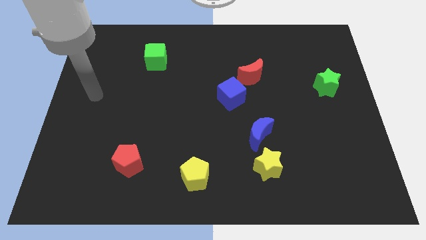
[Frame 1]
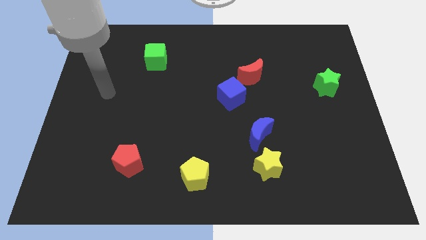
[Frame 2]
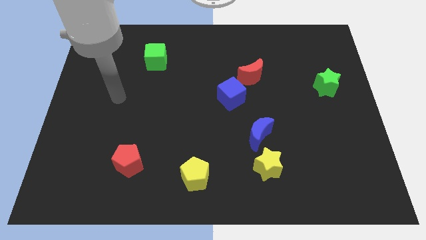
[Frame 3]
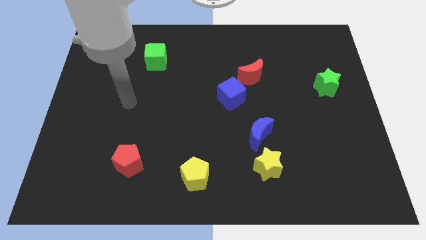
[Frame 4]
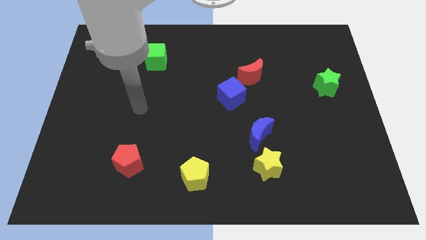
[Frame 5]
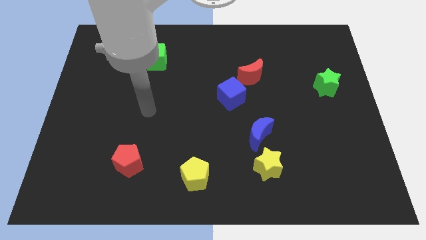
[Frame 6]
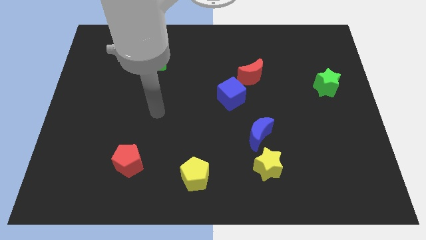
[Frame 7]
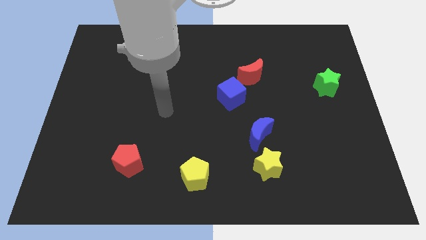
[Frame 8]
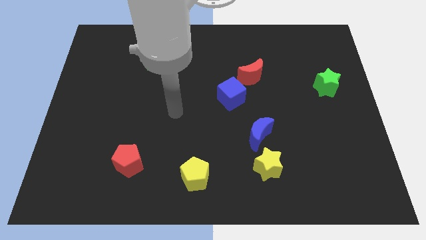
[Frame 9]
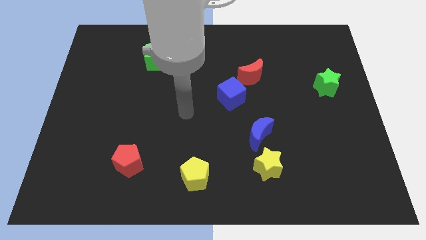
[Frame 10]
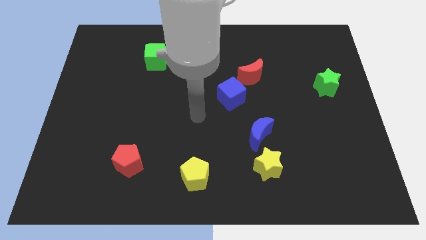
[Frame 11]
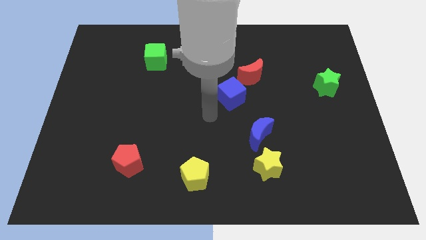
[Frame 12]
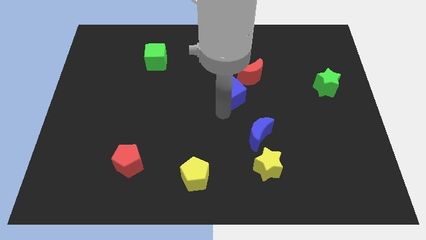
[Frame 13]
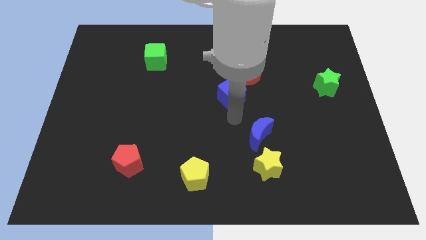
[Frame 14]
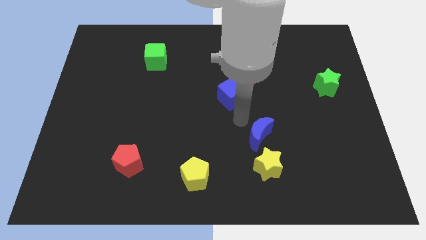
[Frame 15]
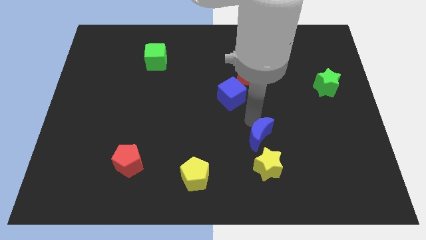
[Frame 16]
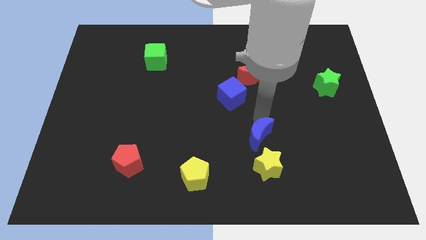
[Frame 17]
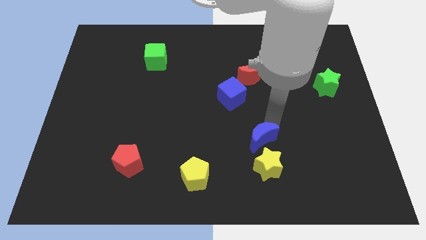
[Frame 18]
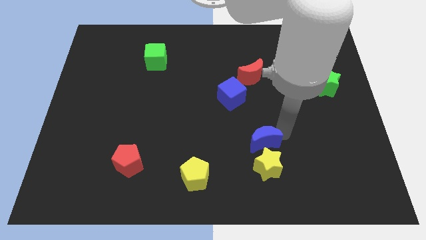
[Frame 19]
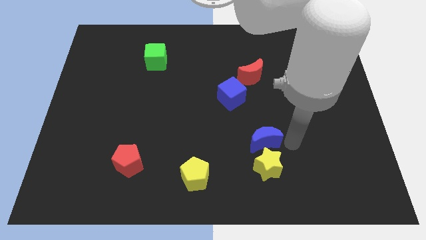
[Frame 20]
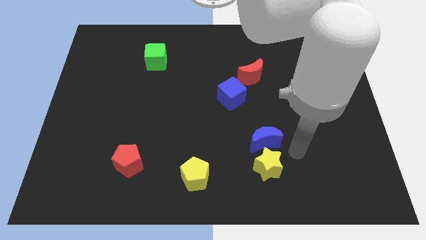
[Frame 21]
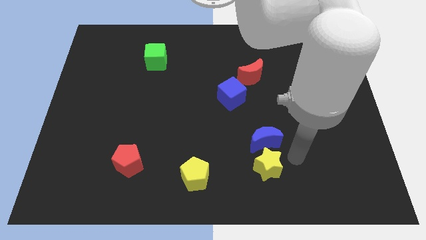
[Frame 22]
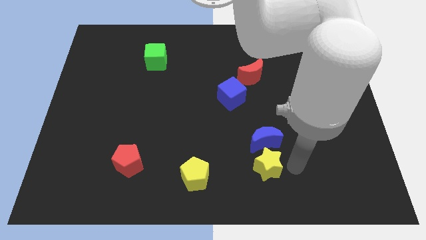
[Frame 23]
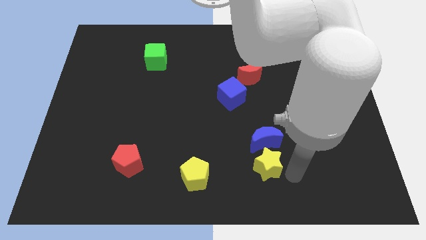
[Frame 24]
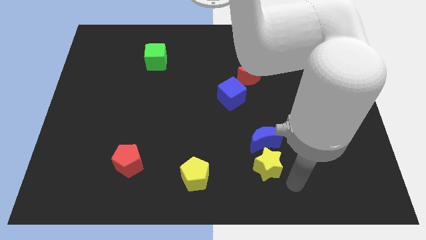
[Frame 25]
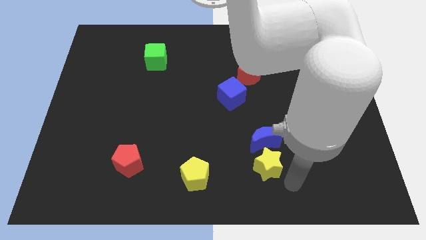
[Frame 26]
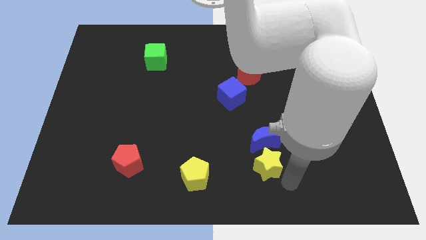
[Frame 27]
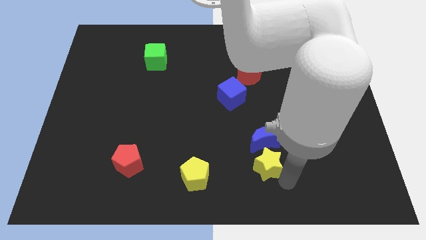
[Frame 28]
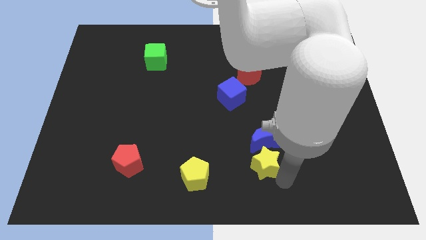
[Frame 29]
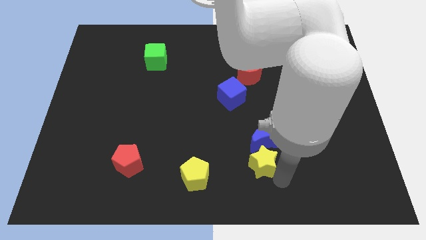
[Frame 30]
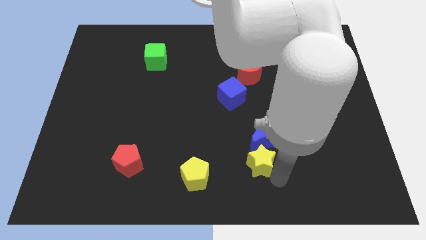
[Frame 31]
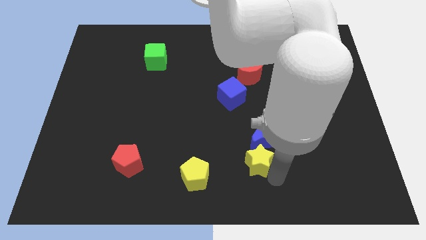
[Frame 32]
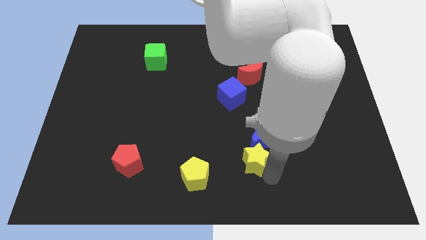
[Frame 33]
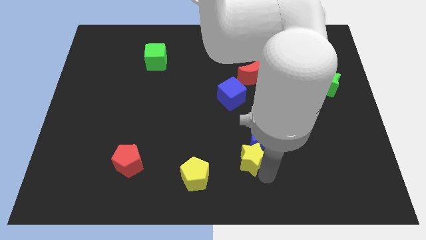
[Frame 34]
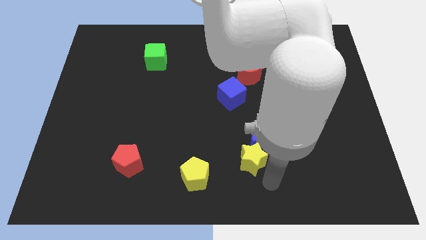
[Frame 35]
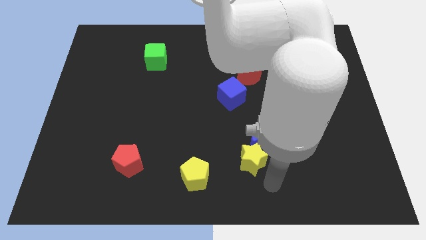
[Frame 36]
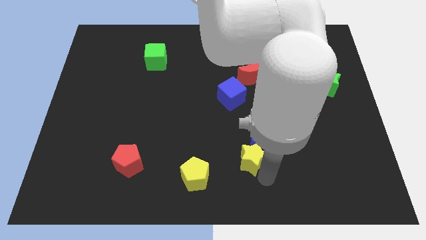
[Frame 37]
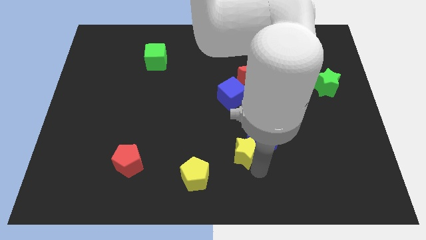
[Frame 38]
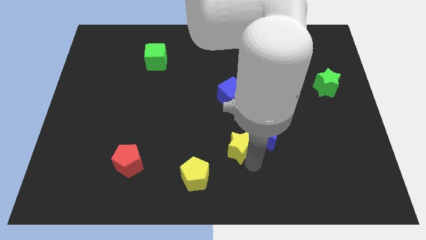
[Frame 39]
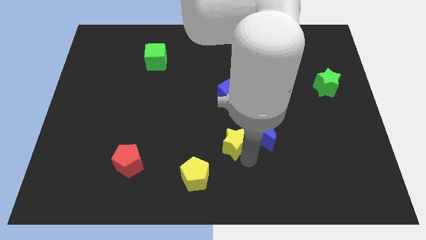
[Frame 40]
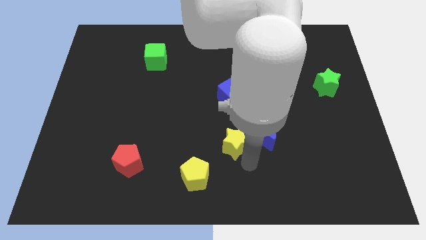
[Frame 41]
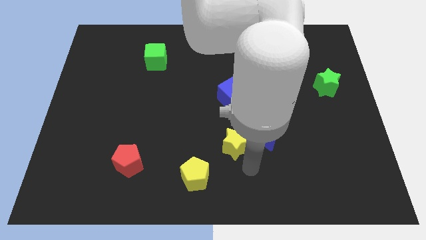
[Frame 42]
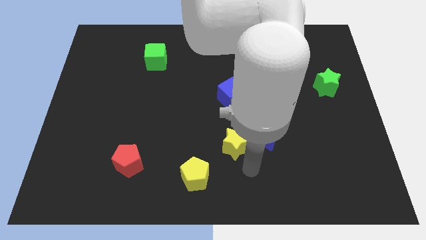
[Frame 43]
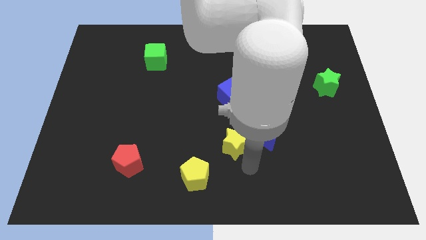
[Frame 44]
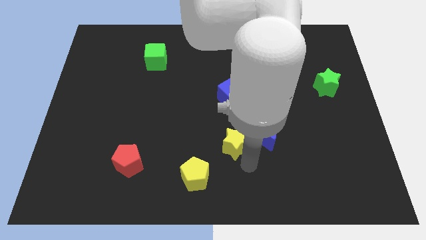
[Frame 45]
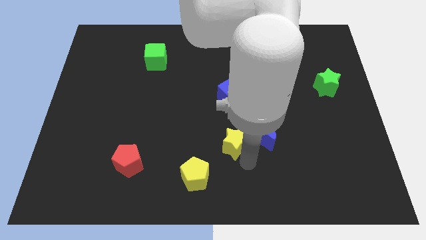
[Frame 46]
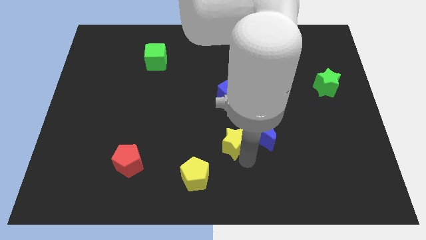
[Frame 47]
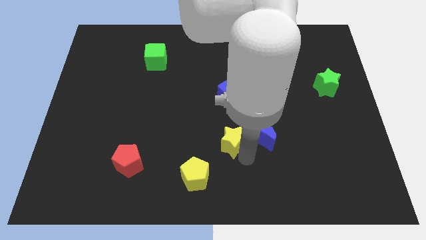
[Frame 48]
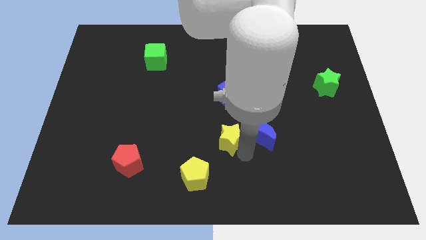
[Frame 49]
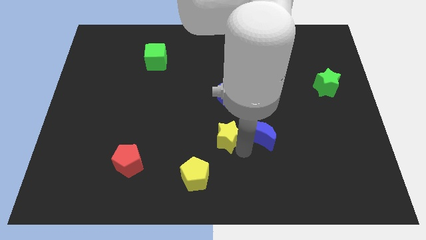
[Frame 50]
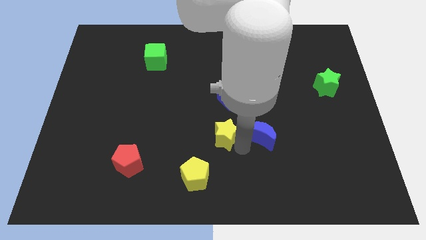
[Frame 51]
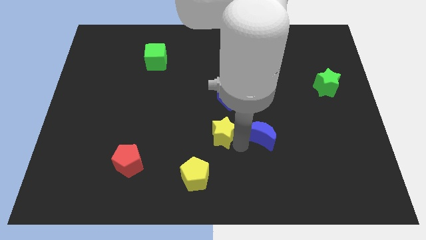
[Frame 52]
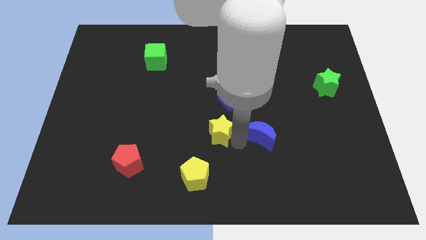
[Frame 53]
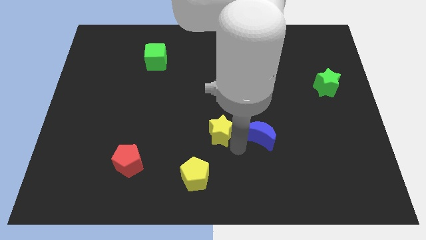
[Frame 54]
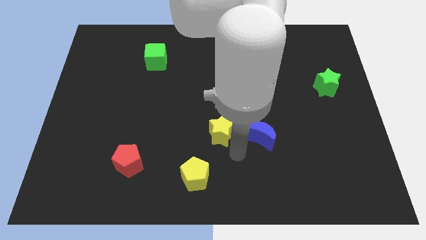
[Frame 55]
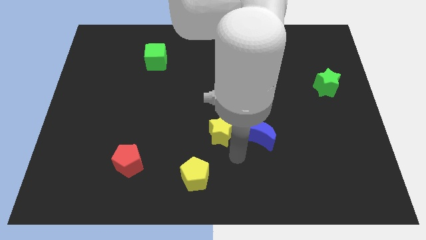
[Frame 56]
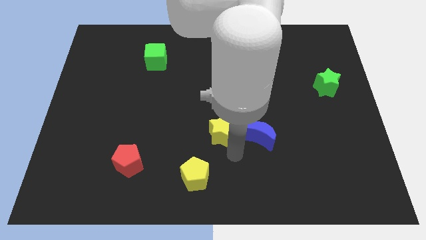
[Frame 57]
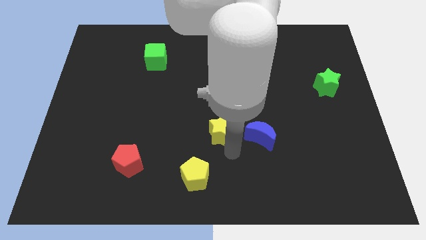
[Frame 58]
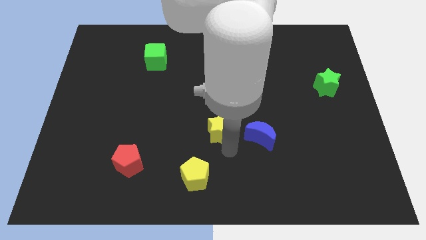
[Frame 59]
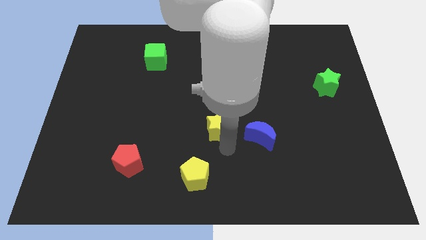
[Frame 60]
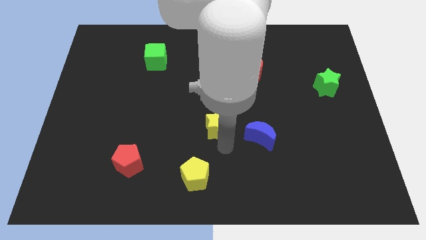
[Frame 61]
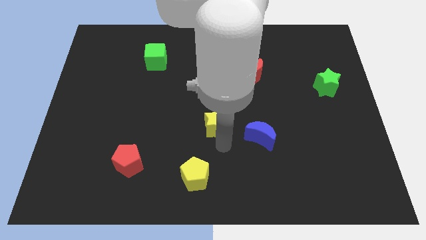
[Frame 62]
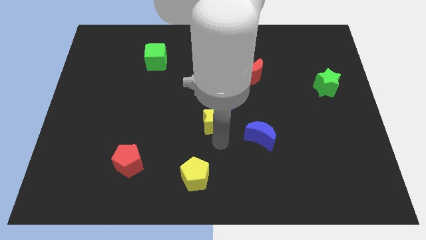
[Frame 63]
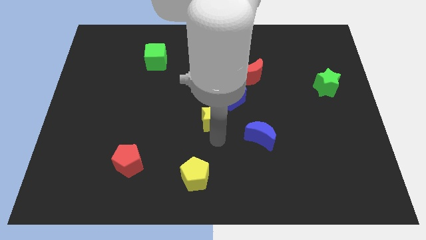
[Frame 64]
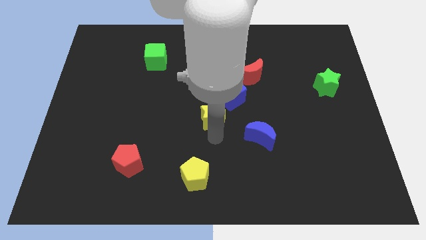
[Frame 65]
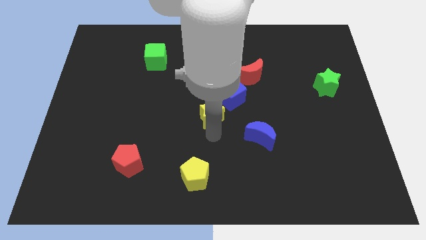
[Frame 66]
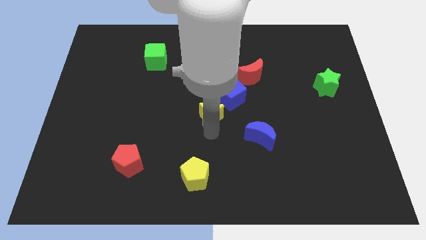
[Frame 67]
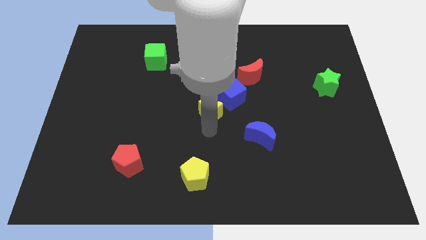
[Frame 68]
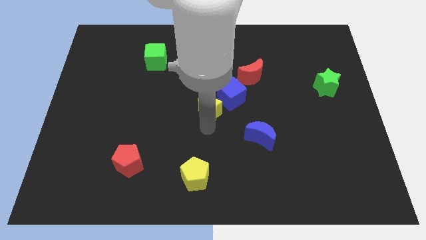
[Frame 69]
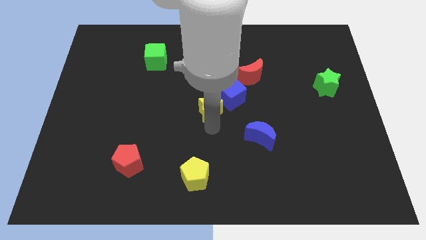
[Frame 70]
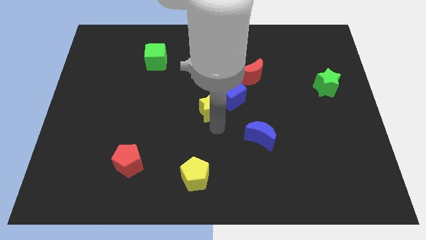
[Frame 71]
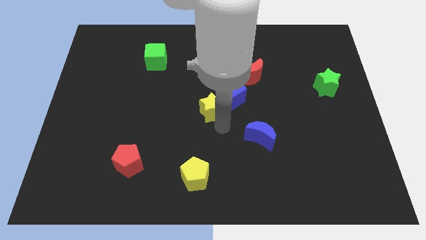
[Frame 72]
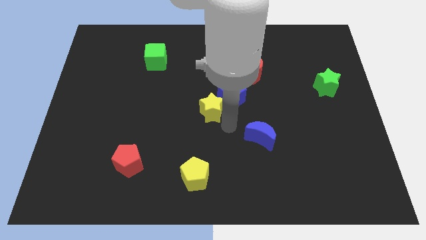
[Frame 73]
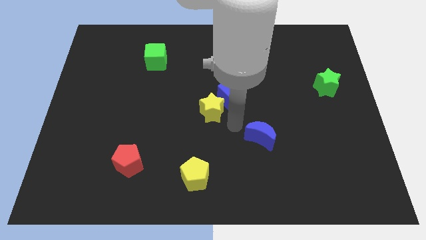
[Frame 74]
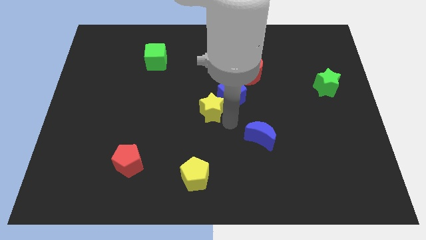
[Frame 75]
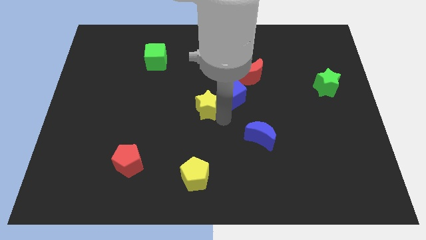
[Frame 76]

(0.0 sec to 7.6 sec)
move the yellow star upwards and left

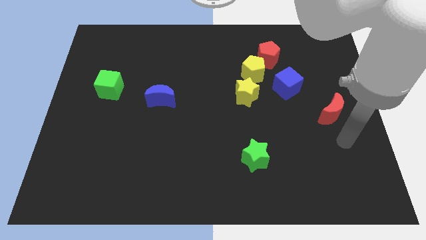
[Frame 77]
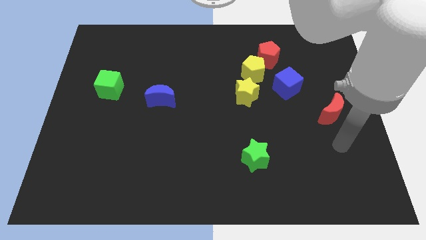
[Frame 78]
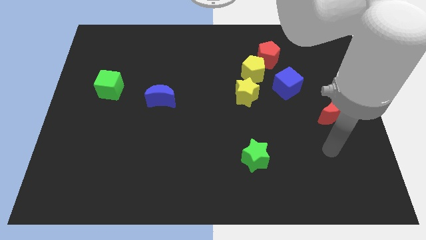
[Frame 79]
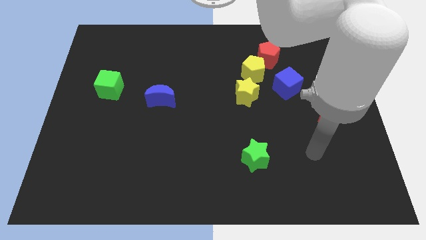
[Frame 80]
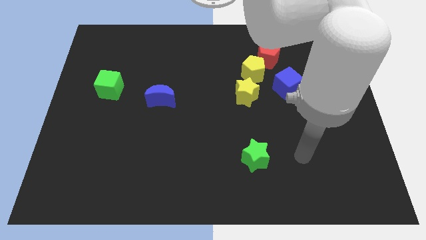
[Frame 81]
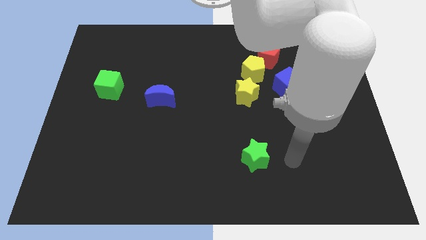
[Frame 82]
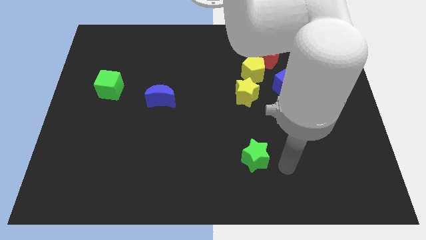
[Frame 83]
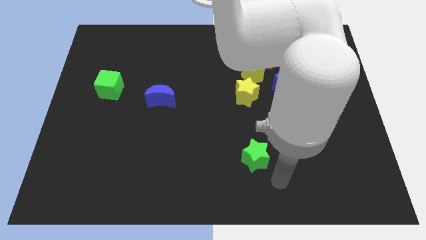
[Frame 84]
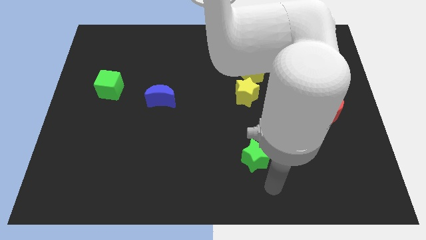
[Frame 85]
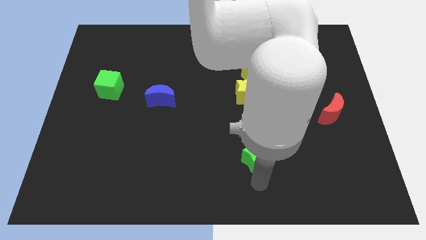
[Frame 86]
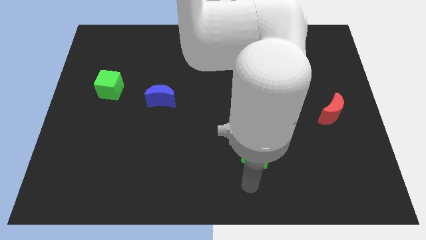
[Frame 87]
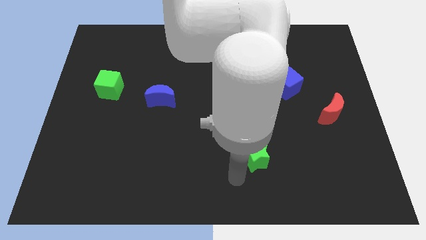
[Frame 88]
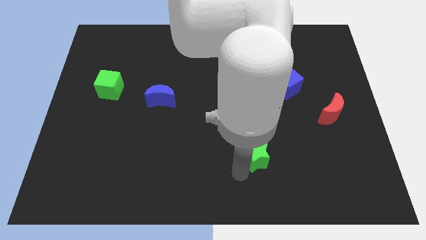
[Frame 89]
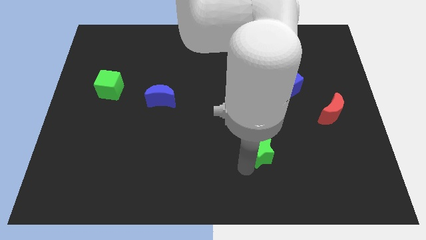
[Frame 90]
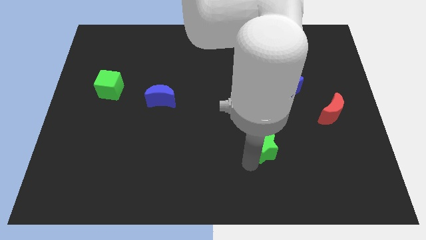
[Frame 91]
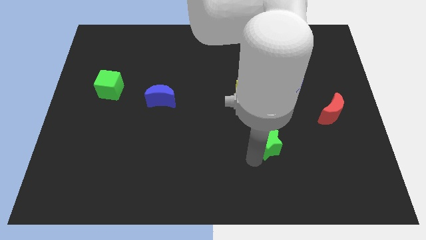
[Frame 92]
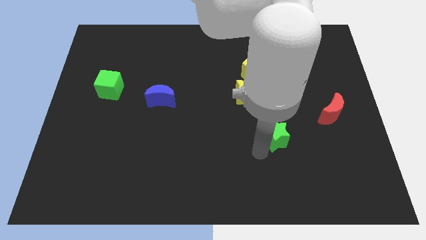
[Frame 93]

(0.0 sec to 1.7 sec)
slightly move the green star upwards and right
